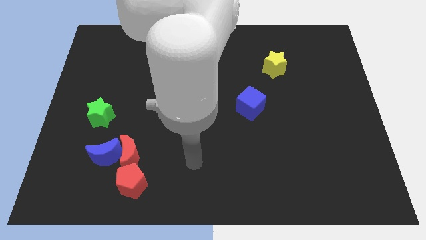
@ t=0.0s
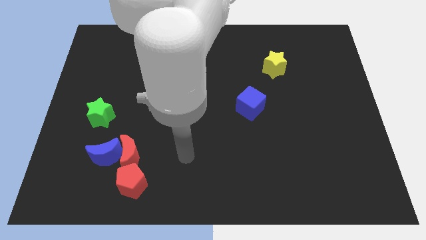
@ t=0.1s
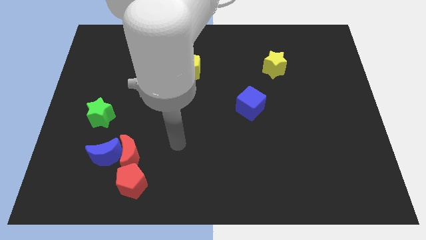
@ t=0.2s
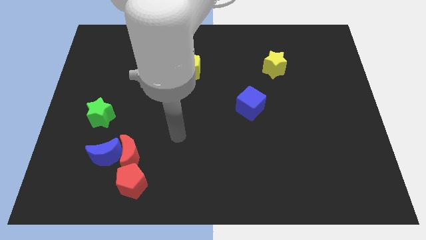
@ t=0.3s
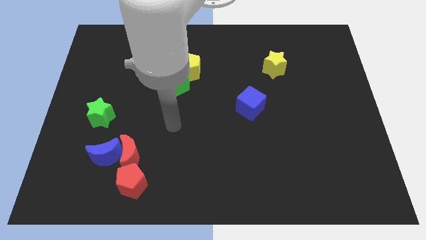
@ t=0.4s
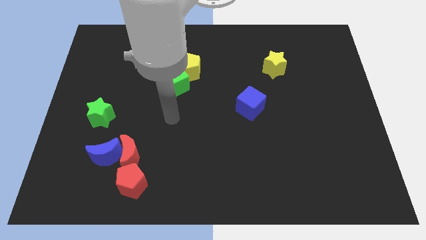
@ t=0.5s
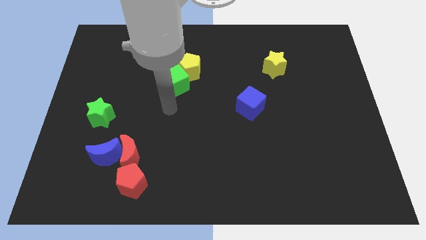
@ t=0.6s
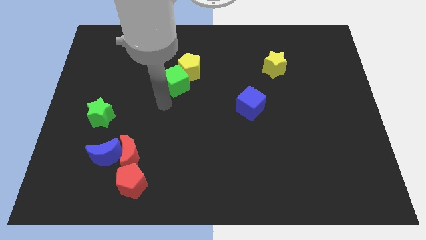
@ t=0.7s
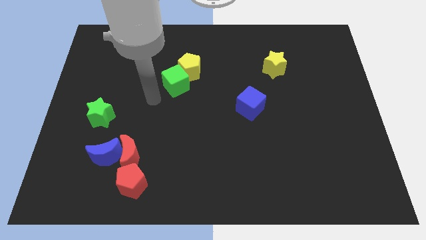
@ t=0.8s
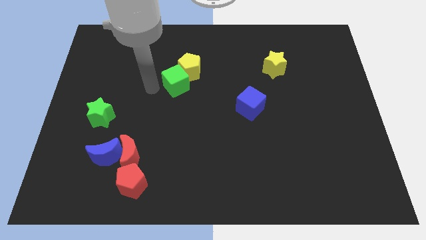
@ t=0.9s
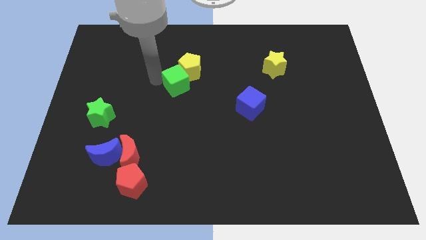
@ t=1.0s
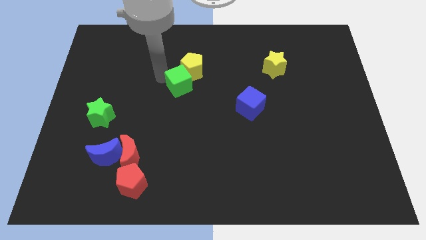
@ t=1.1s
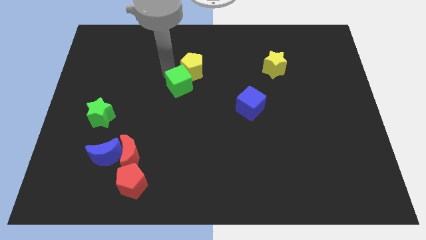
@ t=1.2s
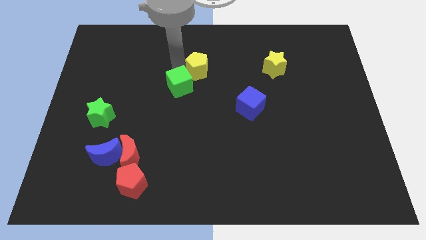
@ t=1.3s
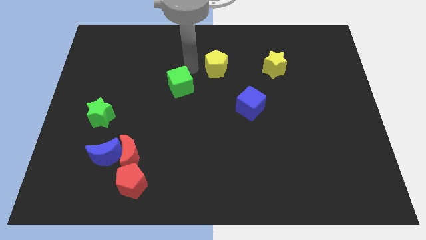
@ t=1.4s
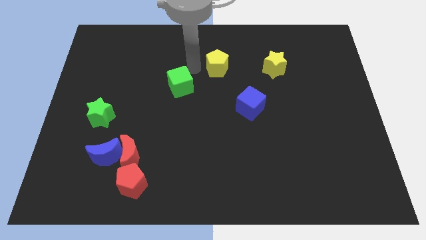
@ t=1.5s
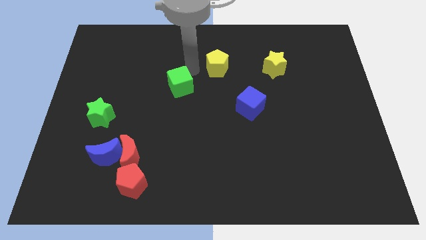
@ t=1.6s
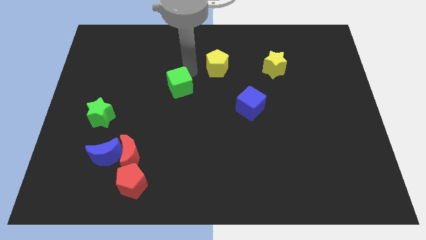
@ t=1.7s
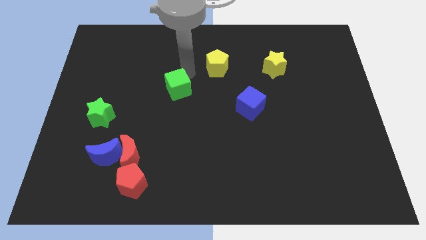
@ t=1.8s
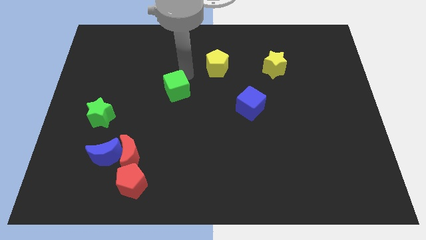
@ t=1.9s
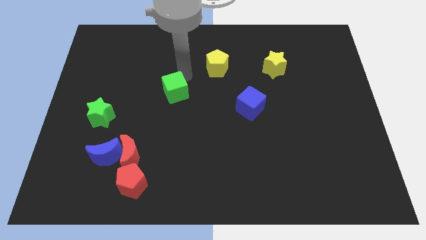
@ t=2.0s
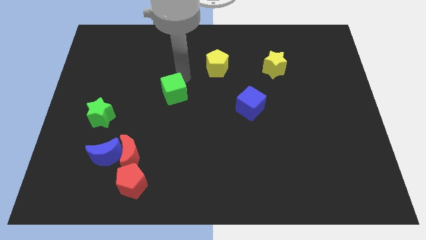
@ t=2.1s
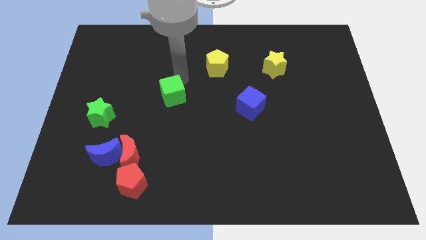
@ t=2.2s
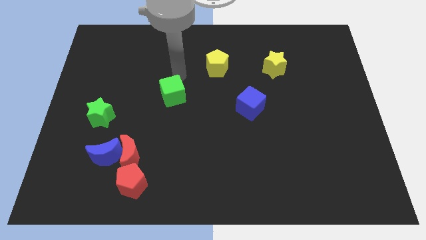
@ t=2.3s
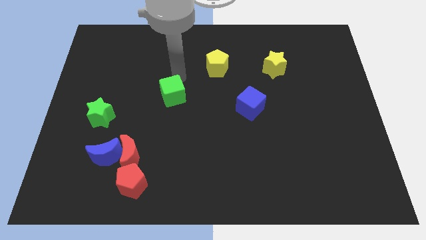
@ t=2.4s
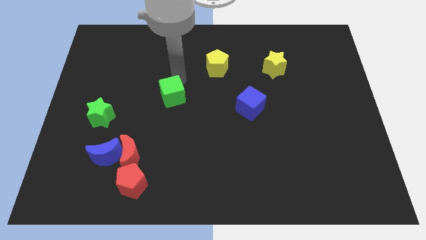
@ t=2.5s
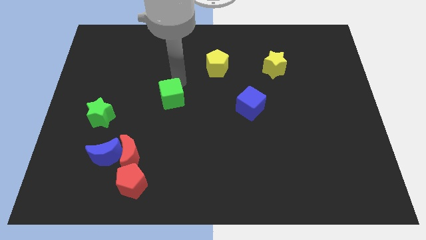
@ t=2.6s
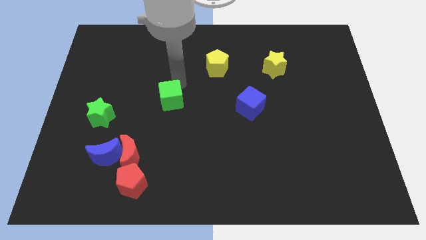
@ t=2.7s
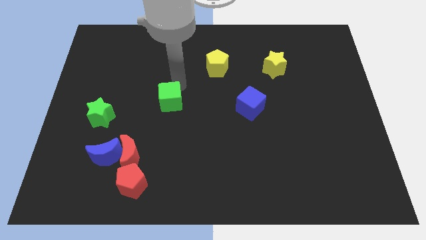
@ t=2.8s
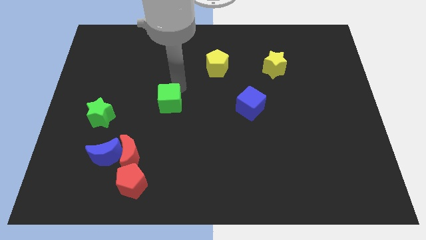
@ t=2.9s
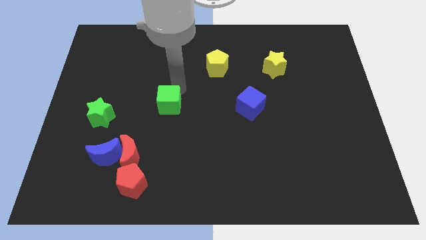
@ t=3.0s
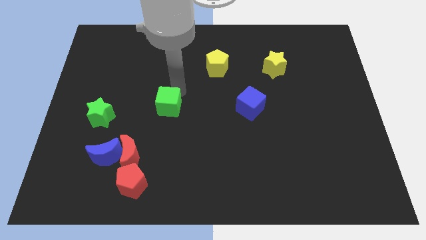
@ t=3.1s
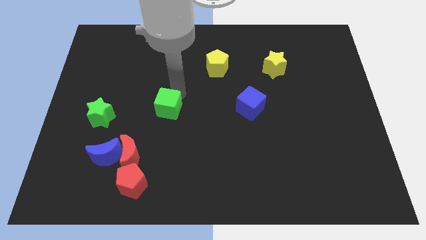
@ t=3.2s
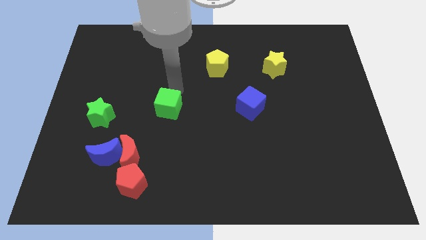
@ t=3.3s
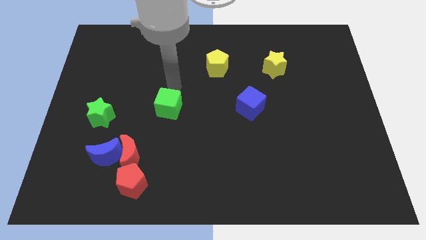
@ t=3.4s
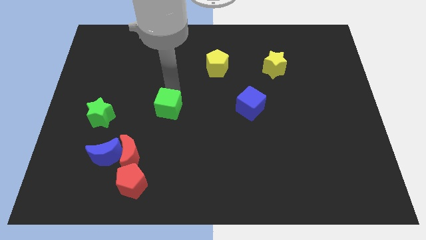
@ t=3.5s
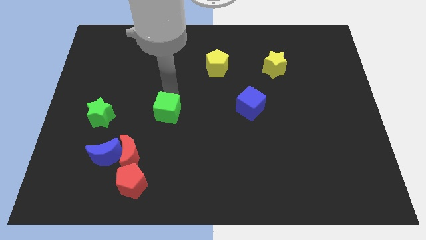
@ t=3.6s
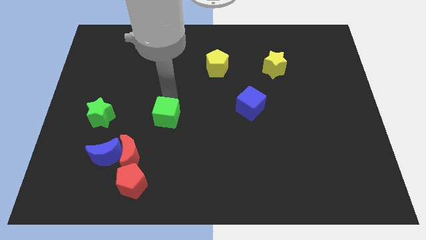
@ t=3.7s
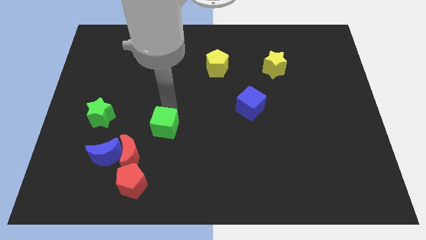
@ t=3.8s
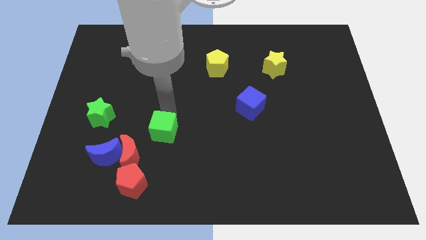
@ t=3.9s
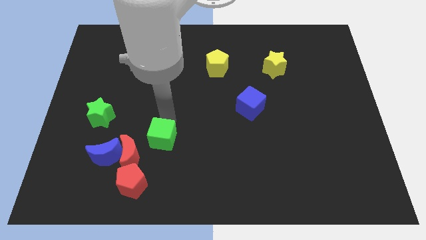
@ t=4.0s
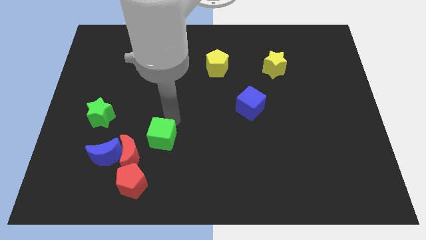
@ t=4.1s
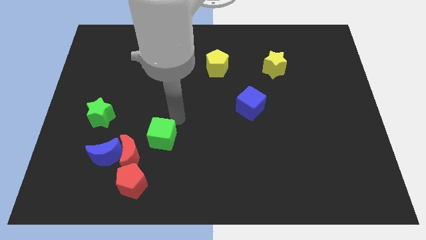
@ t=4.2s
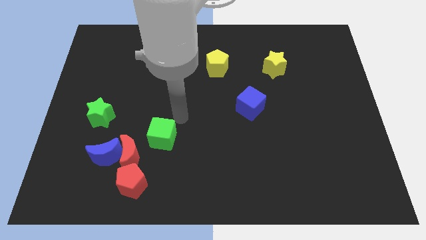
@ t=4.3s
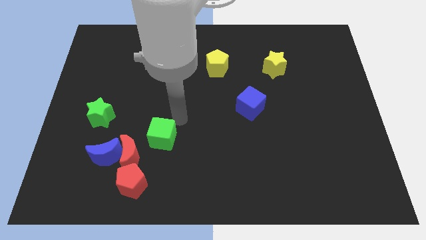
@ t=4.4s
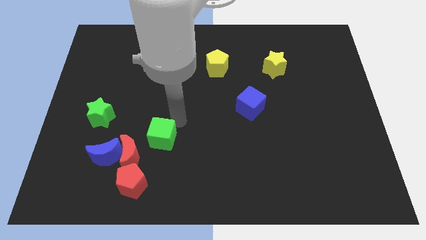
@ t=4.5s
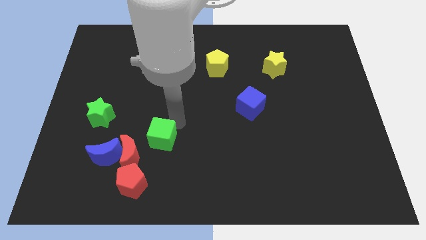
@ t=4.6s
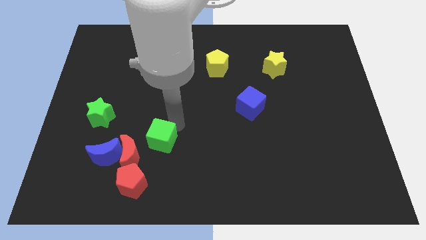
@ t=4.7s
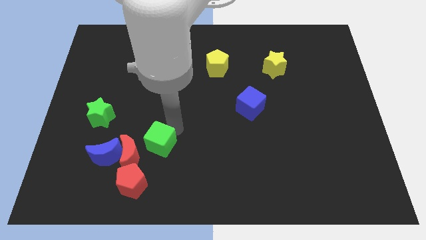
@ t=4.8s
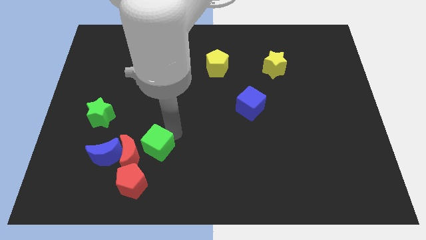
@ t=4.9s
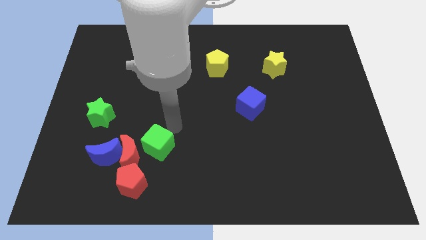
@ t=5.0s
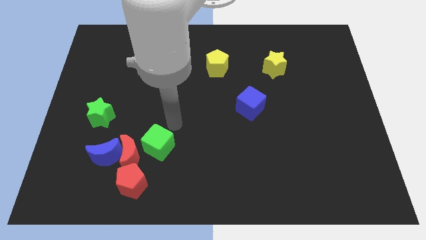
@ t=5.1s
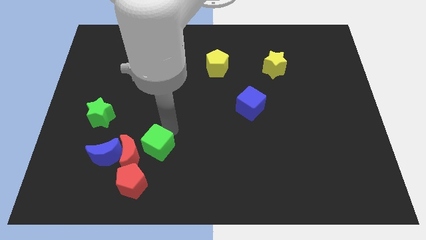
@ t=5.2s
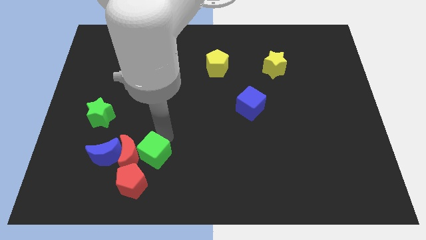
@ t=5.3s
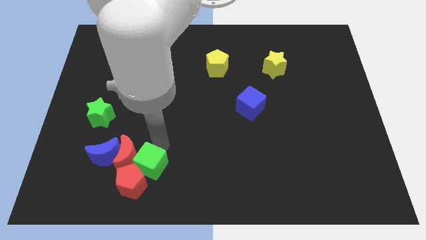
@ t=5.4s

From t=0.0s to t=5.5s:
slide the green cube to the red pentagon

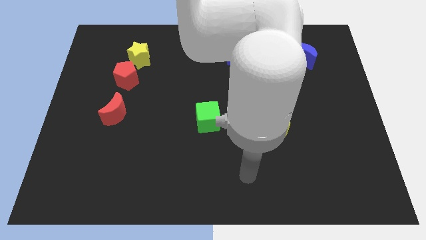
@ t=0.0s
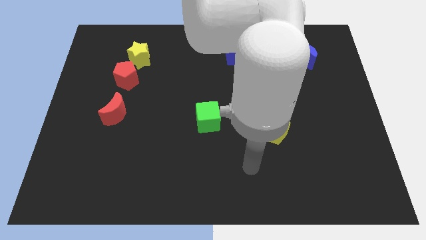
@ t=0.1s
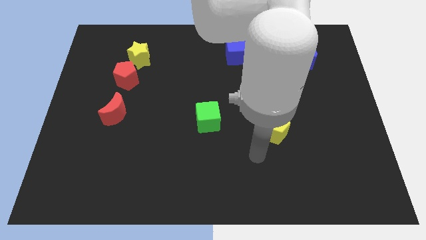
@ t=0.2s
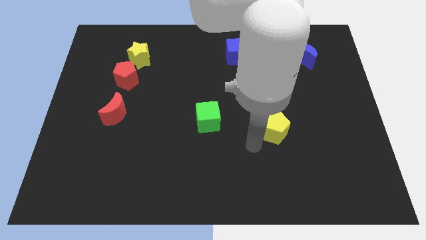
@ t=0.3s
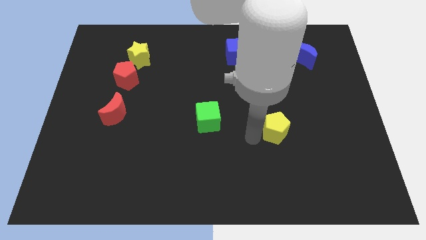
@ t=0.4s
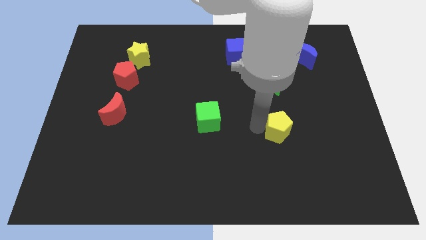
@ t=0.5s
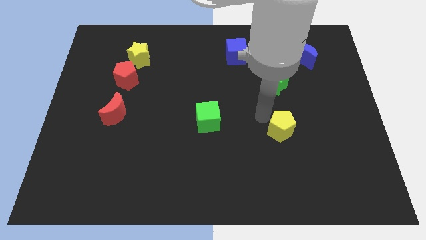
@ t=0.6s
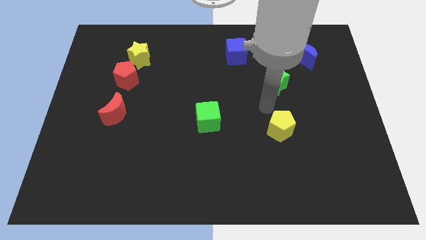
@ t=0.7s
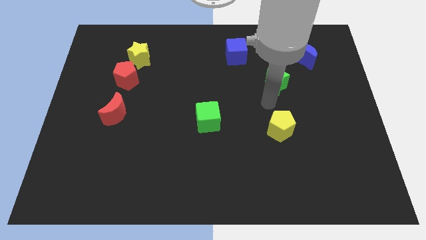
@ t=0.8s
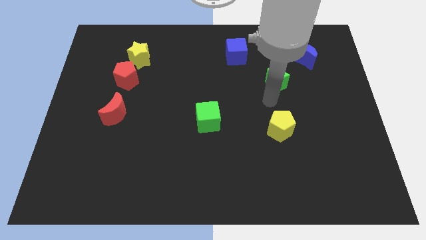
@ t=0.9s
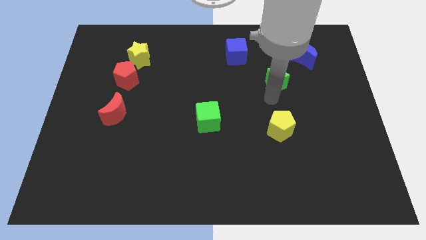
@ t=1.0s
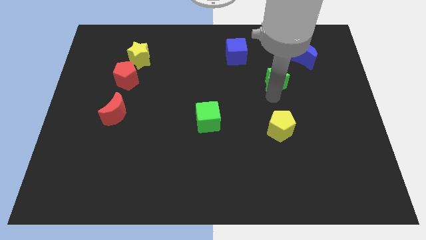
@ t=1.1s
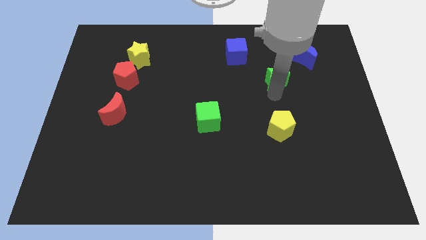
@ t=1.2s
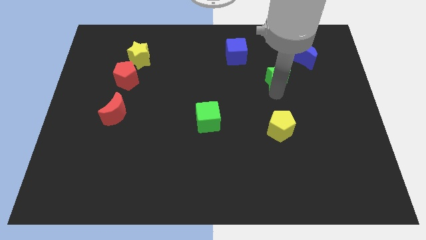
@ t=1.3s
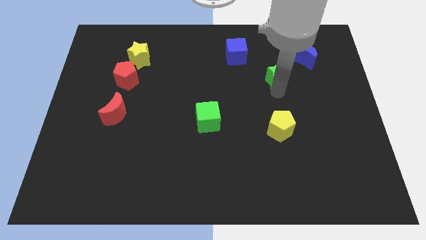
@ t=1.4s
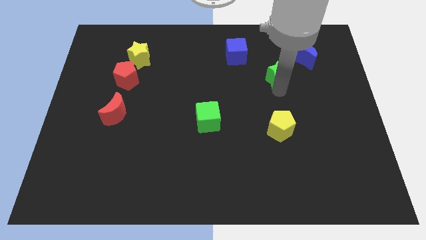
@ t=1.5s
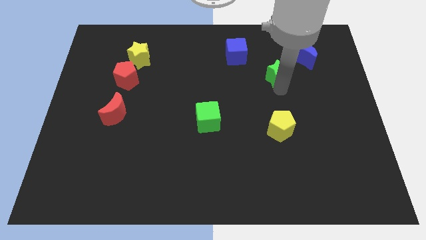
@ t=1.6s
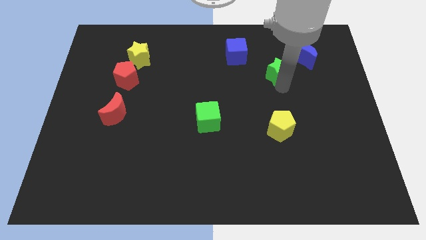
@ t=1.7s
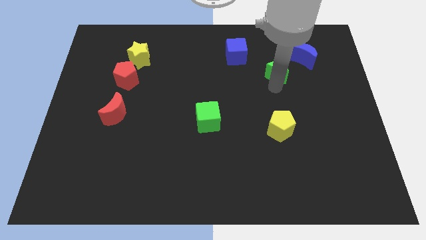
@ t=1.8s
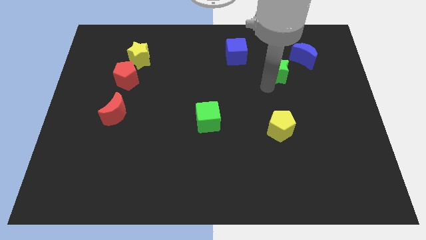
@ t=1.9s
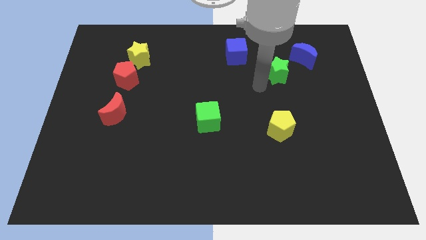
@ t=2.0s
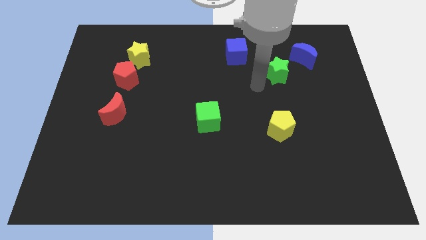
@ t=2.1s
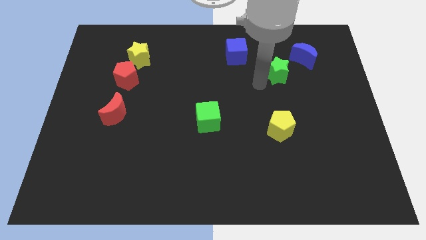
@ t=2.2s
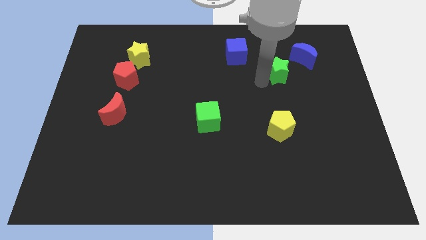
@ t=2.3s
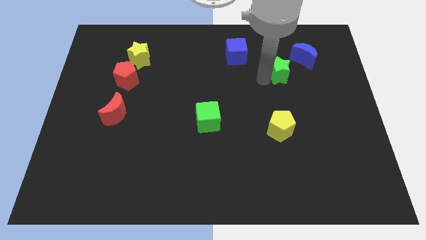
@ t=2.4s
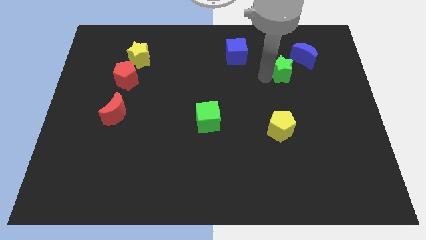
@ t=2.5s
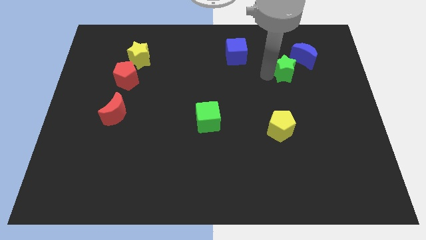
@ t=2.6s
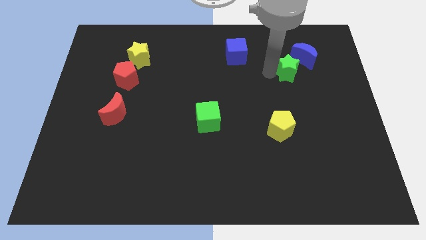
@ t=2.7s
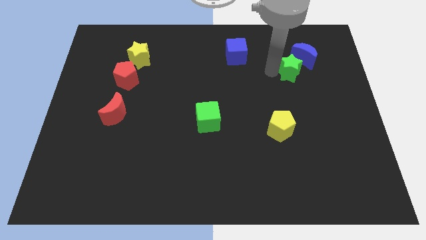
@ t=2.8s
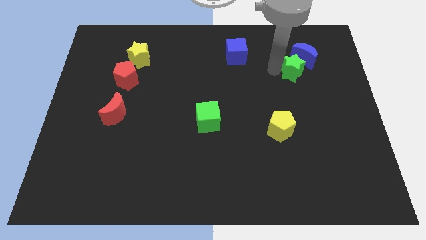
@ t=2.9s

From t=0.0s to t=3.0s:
slide the green star next to the blue moon
